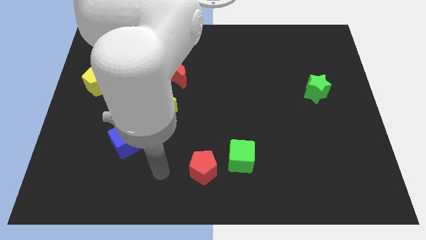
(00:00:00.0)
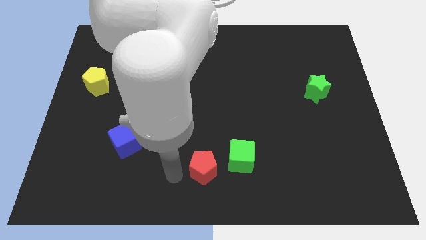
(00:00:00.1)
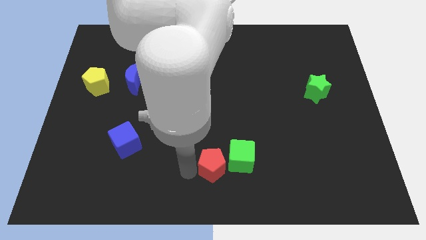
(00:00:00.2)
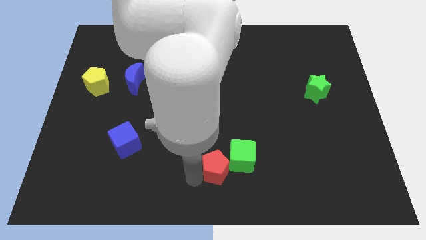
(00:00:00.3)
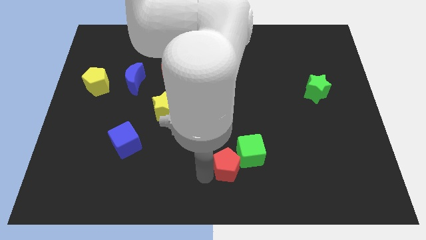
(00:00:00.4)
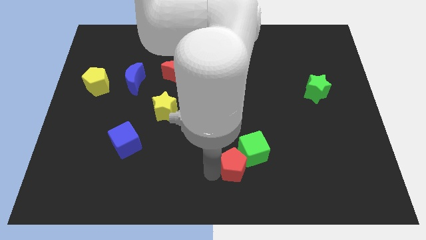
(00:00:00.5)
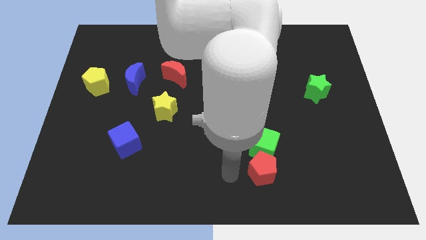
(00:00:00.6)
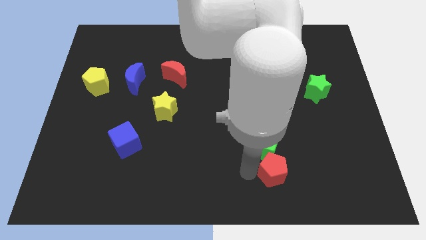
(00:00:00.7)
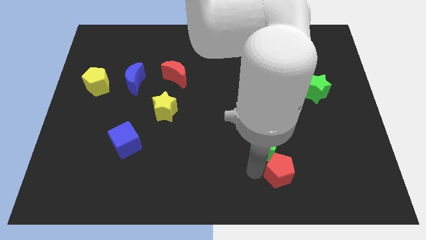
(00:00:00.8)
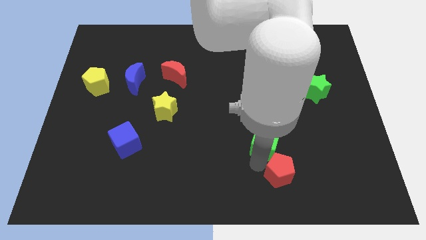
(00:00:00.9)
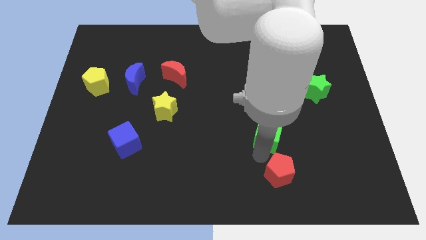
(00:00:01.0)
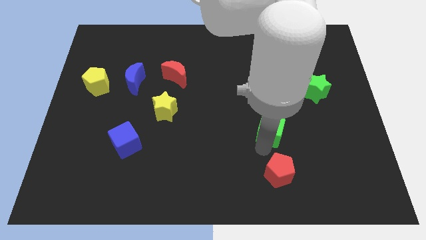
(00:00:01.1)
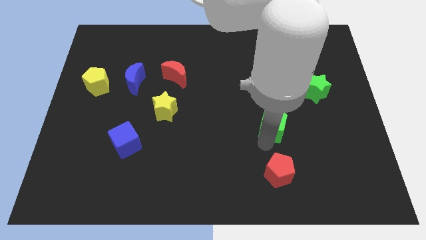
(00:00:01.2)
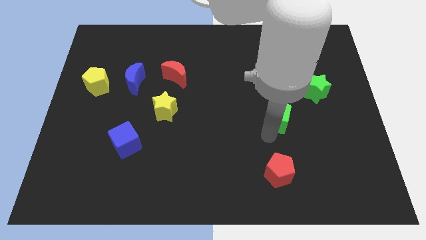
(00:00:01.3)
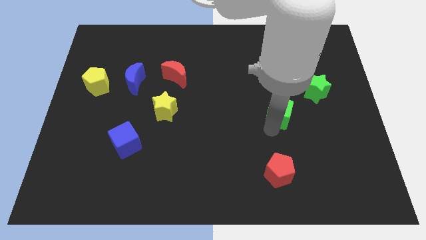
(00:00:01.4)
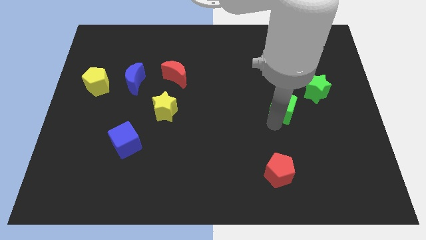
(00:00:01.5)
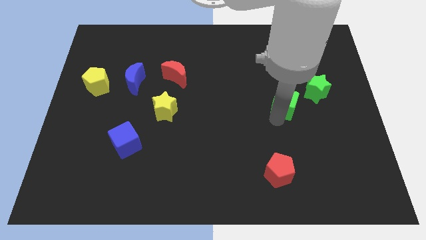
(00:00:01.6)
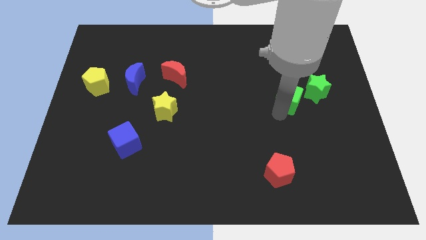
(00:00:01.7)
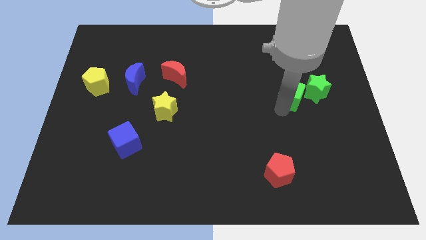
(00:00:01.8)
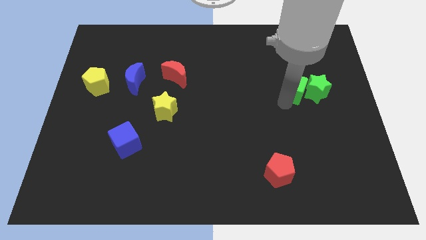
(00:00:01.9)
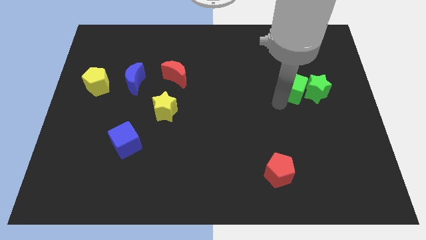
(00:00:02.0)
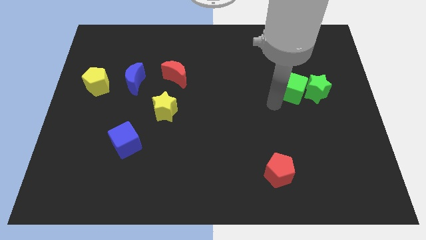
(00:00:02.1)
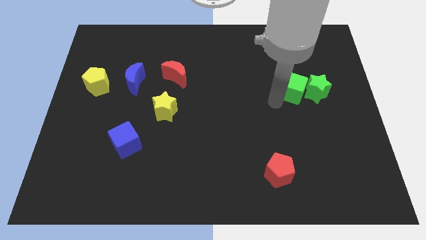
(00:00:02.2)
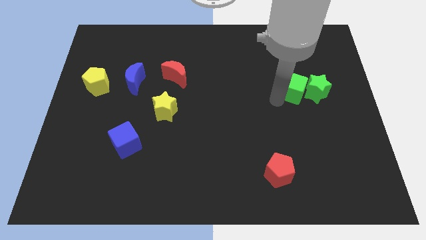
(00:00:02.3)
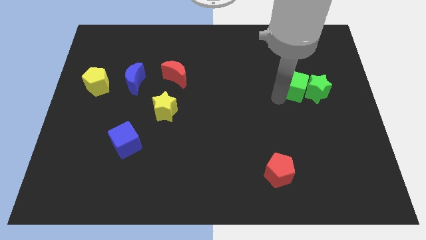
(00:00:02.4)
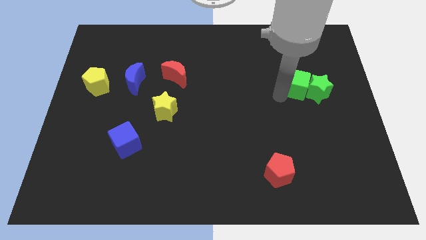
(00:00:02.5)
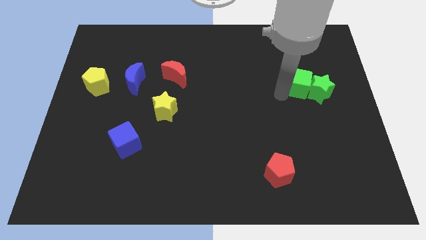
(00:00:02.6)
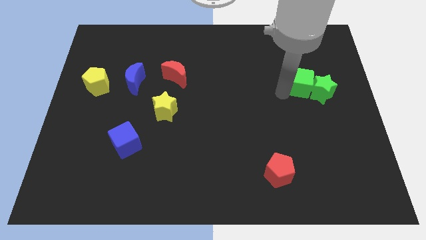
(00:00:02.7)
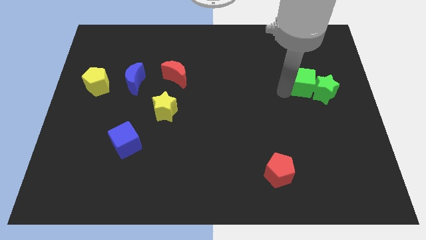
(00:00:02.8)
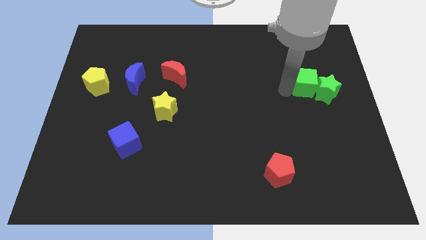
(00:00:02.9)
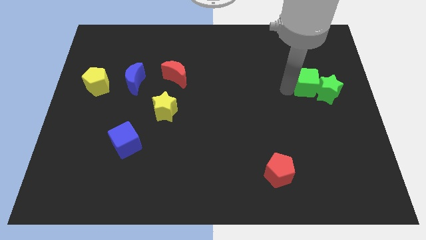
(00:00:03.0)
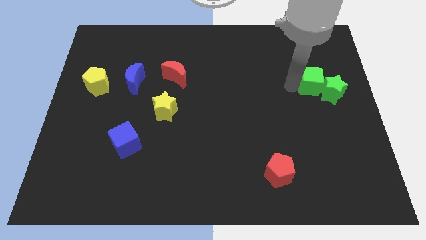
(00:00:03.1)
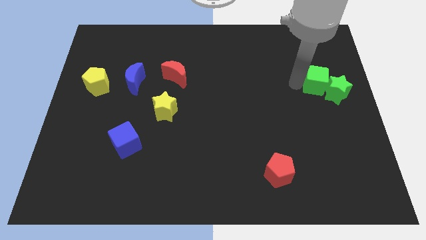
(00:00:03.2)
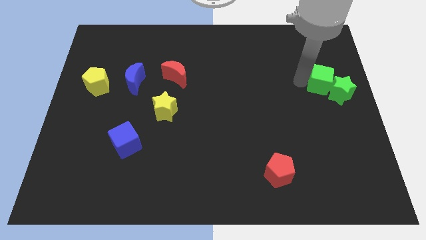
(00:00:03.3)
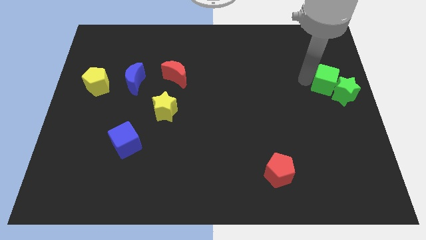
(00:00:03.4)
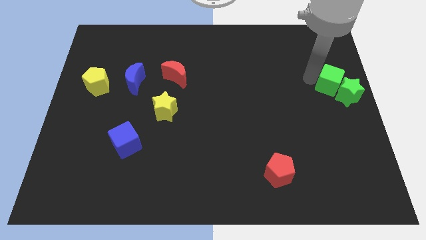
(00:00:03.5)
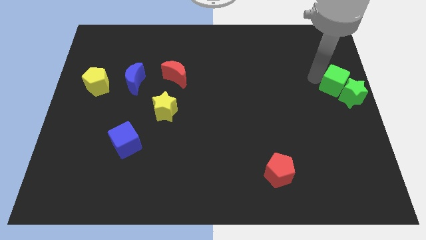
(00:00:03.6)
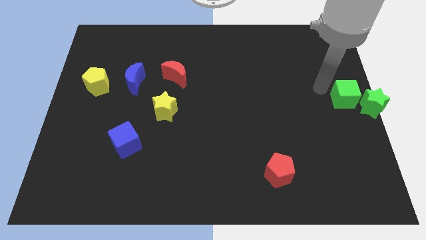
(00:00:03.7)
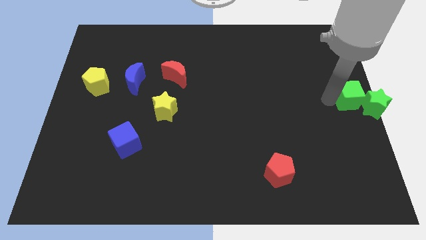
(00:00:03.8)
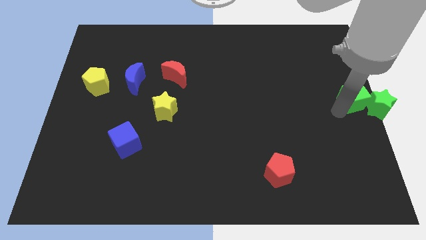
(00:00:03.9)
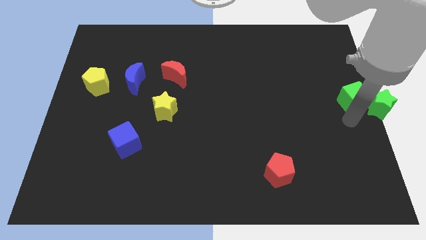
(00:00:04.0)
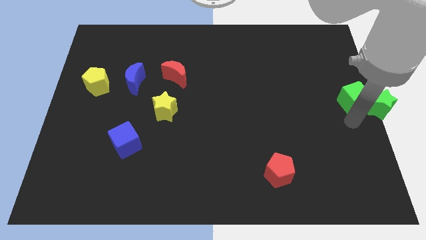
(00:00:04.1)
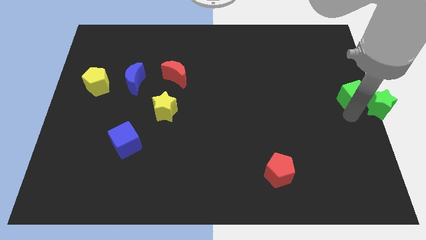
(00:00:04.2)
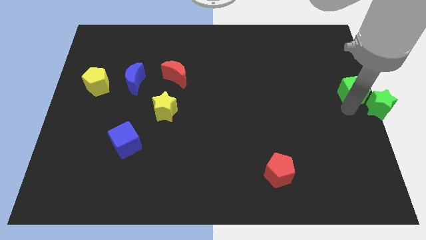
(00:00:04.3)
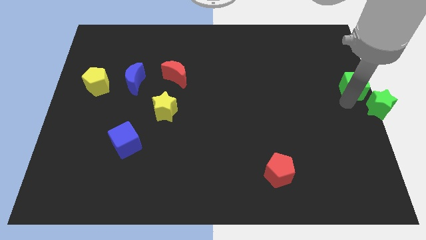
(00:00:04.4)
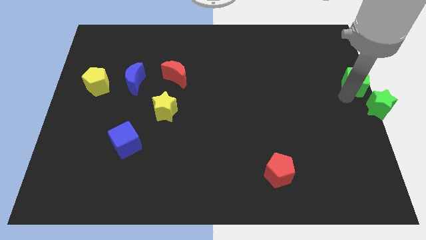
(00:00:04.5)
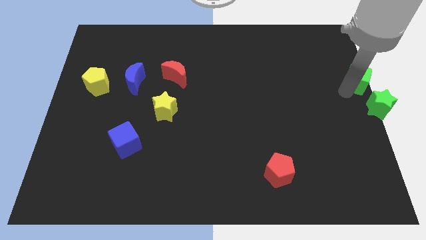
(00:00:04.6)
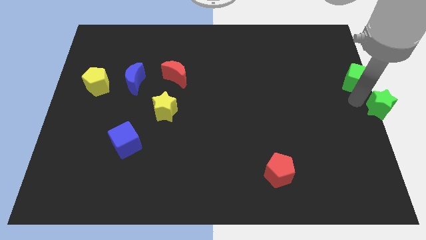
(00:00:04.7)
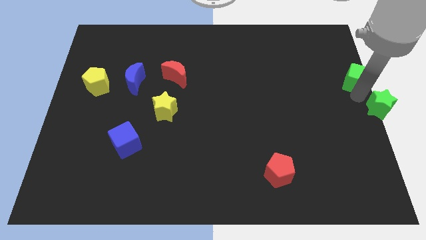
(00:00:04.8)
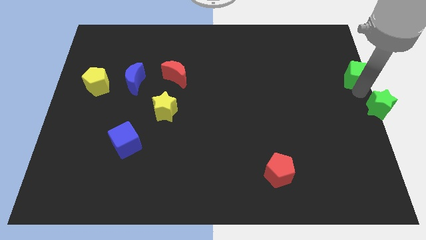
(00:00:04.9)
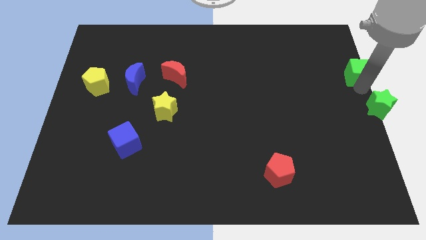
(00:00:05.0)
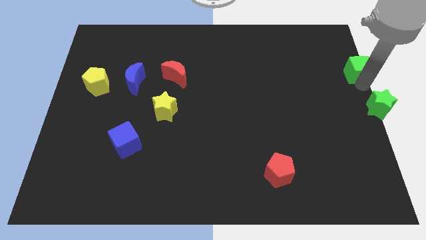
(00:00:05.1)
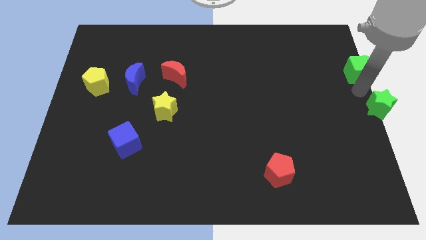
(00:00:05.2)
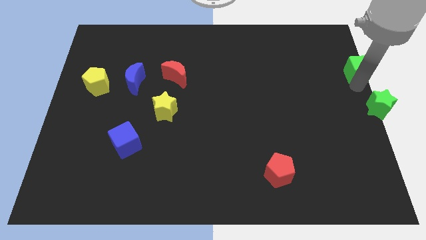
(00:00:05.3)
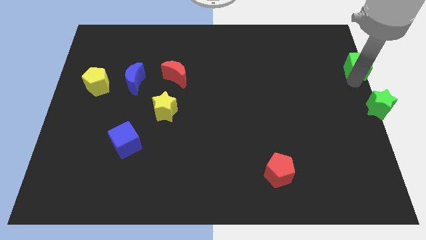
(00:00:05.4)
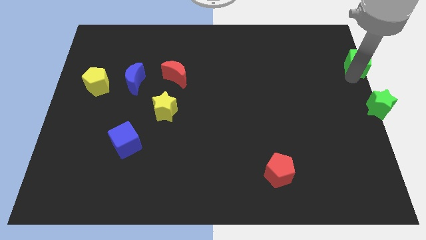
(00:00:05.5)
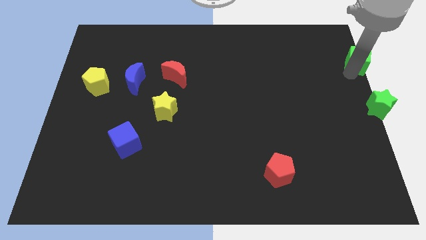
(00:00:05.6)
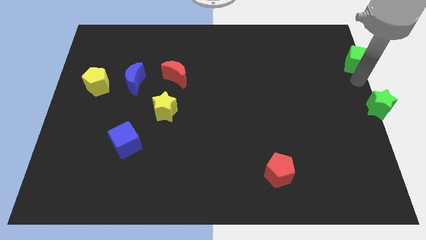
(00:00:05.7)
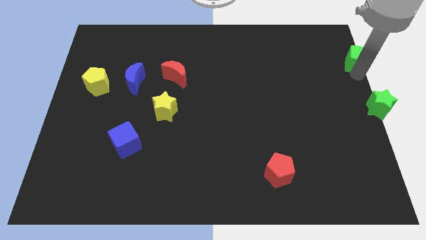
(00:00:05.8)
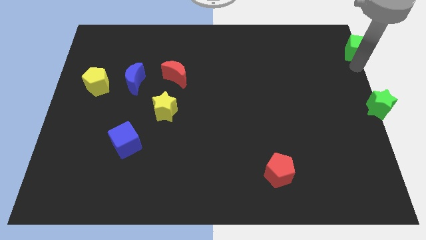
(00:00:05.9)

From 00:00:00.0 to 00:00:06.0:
move the green cube to the top right corner

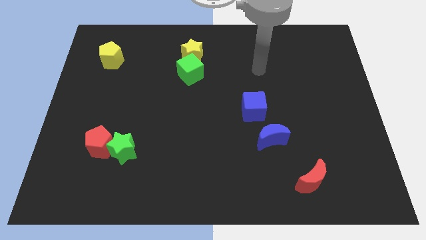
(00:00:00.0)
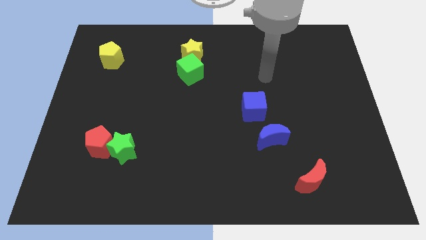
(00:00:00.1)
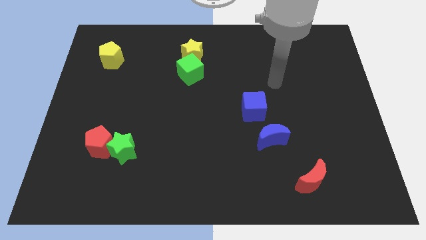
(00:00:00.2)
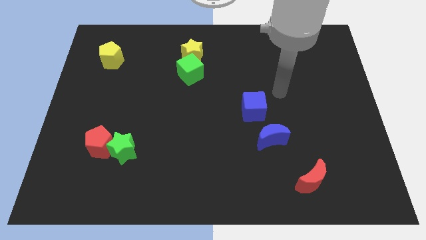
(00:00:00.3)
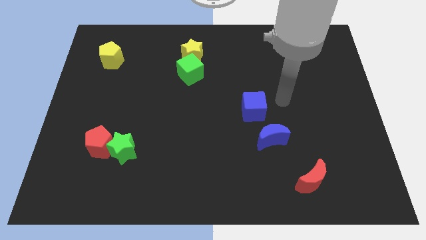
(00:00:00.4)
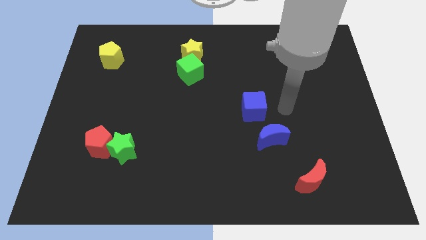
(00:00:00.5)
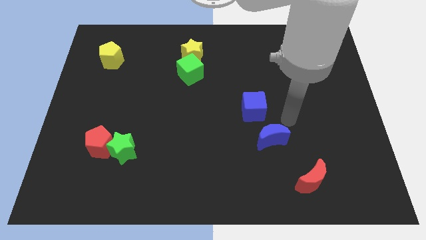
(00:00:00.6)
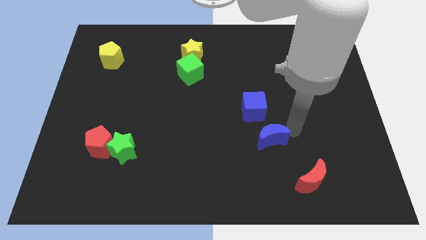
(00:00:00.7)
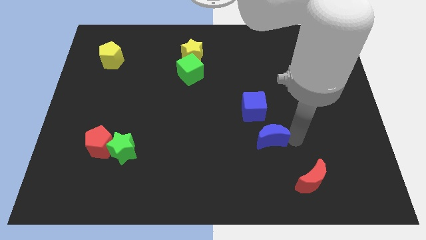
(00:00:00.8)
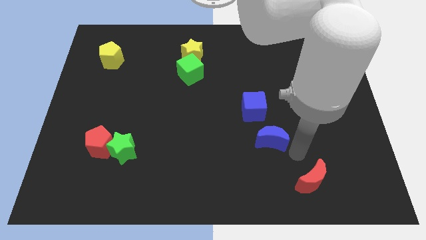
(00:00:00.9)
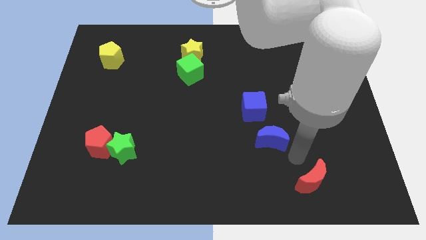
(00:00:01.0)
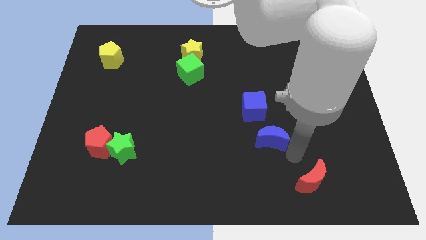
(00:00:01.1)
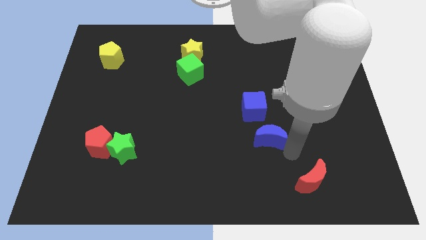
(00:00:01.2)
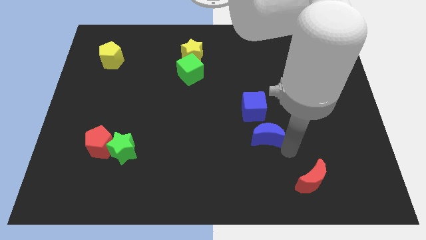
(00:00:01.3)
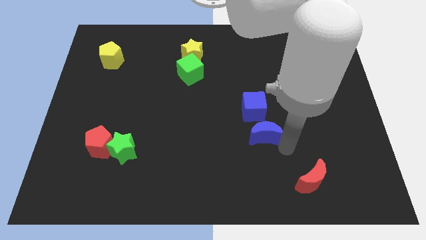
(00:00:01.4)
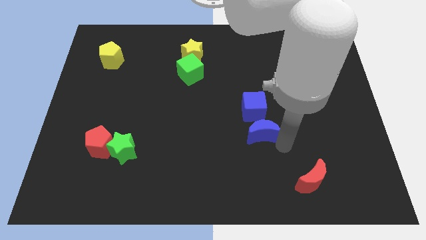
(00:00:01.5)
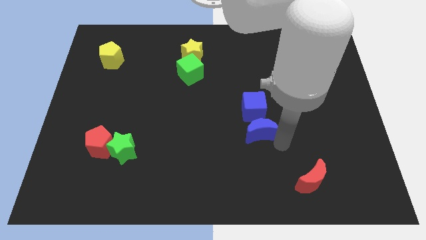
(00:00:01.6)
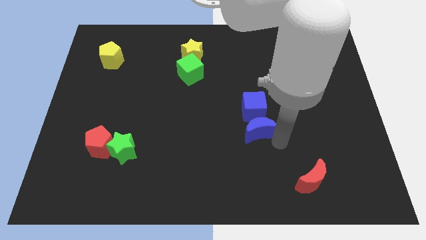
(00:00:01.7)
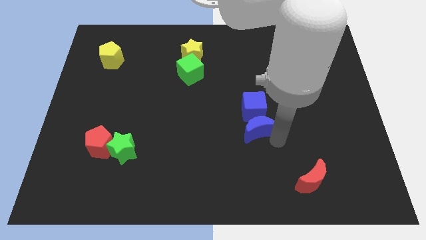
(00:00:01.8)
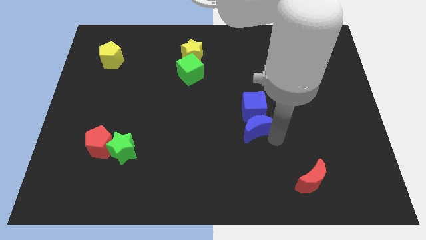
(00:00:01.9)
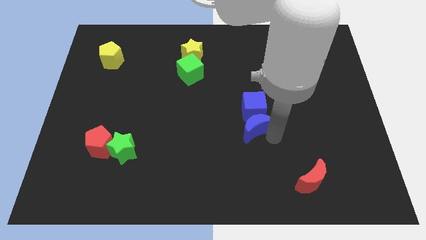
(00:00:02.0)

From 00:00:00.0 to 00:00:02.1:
move the blue moon to the center
